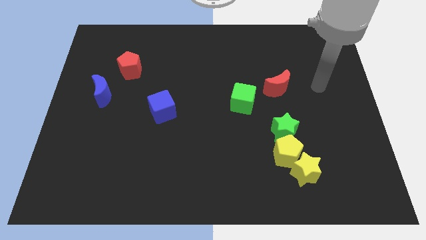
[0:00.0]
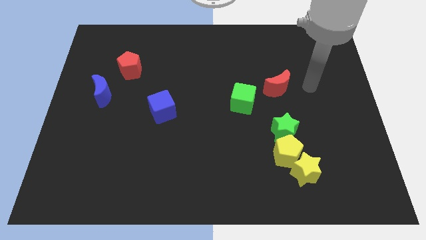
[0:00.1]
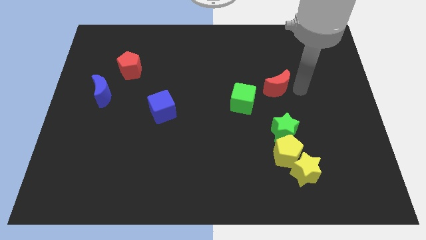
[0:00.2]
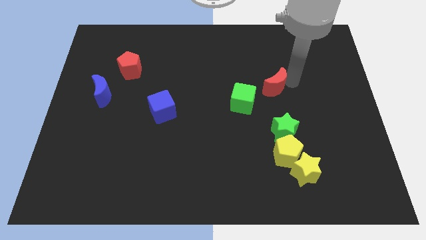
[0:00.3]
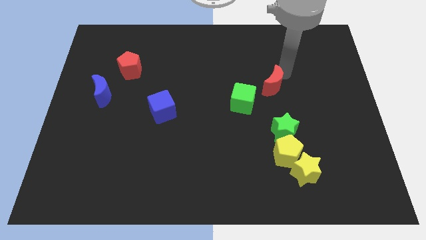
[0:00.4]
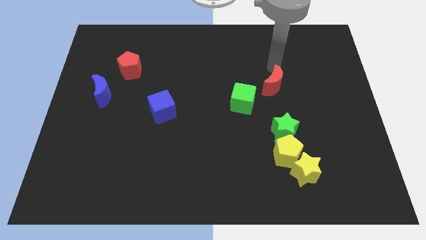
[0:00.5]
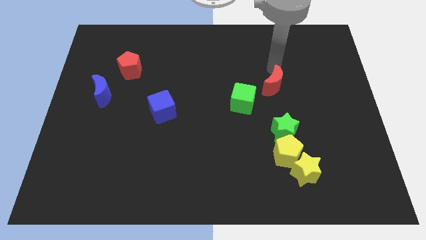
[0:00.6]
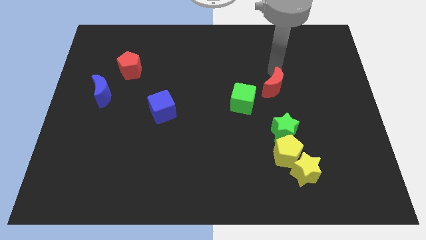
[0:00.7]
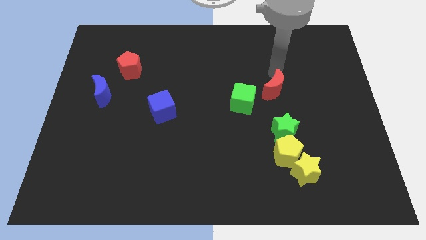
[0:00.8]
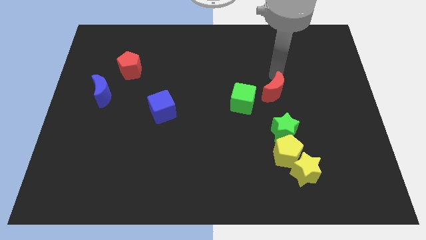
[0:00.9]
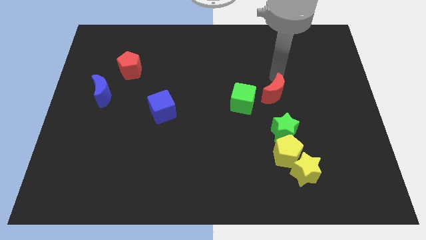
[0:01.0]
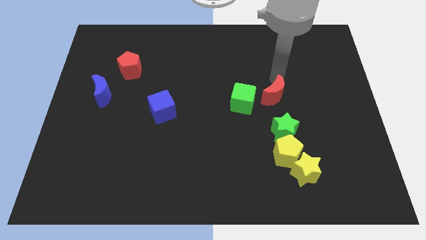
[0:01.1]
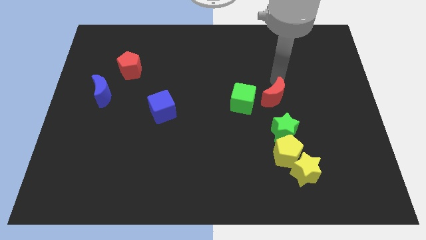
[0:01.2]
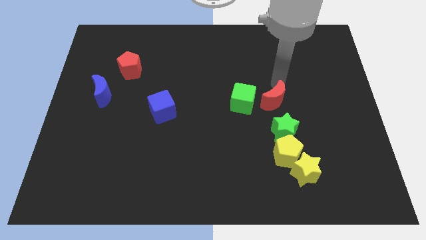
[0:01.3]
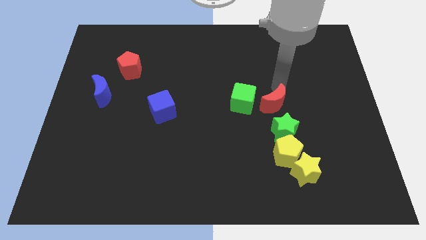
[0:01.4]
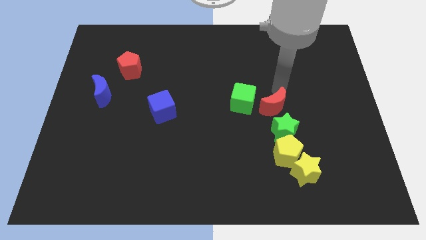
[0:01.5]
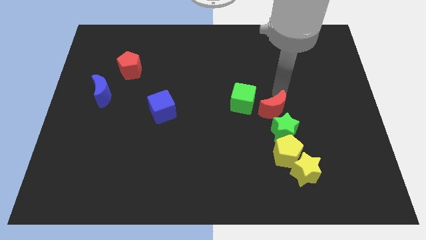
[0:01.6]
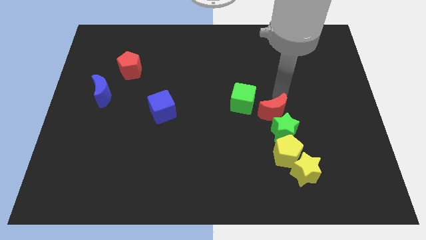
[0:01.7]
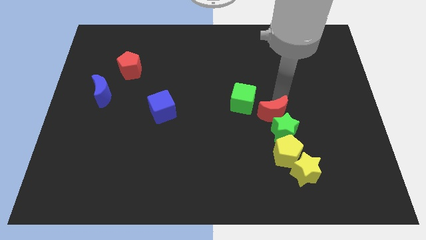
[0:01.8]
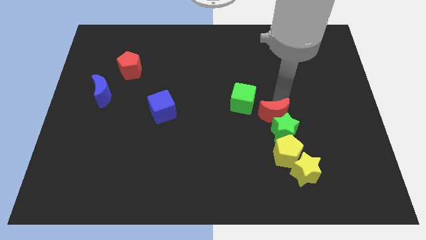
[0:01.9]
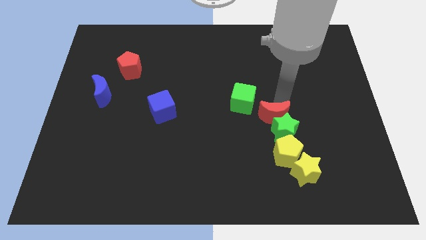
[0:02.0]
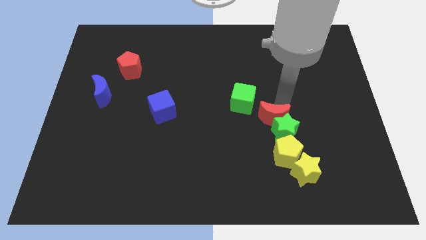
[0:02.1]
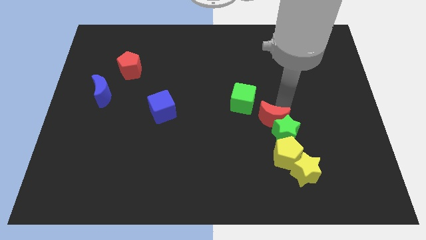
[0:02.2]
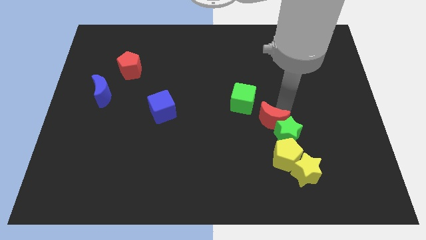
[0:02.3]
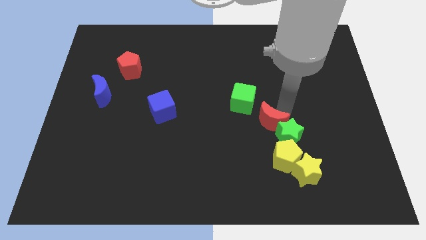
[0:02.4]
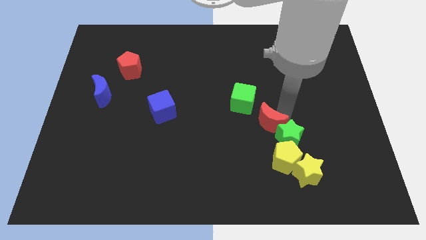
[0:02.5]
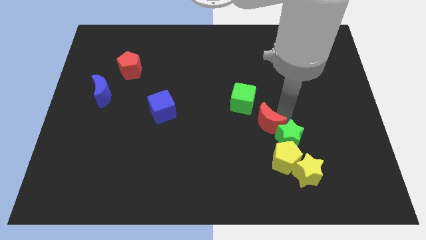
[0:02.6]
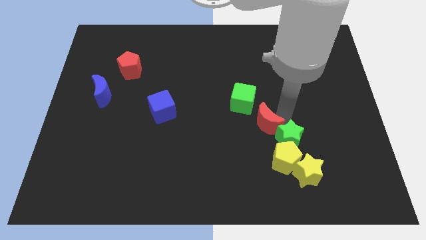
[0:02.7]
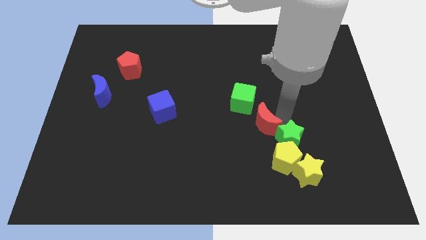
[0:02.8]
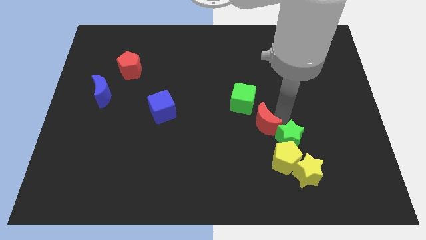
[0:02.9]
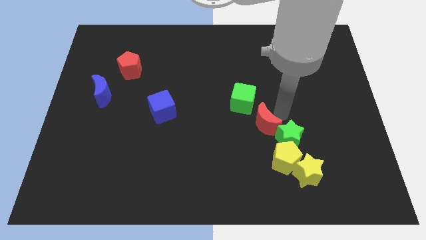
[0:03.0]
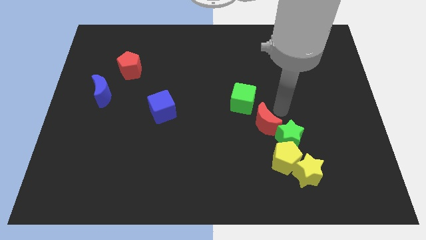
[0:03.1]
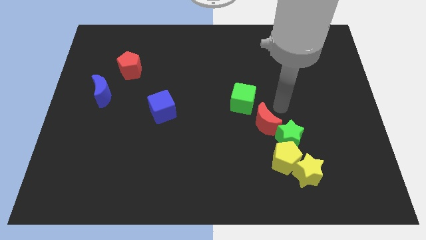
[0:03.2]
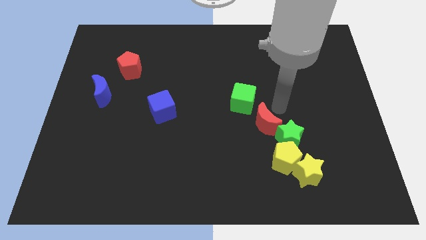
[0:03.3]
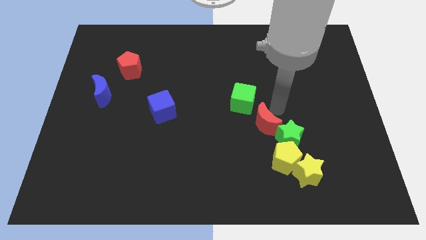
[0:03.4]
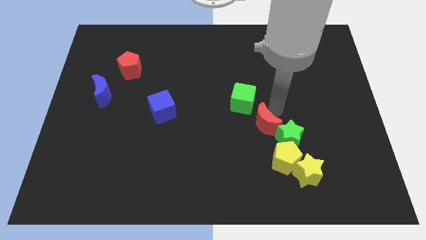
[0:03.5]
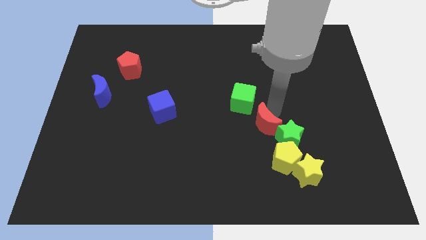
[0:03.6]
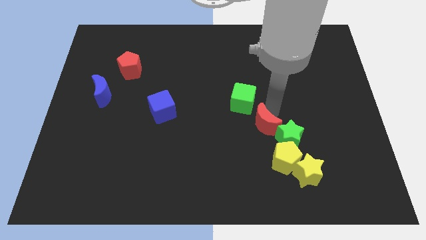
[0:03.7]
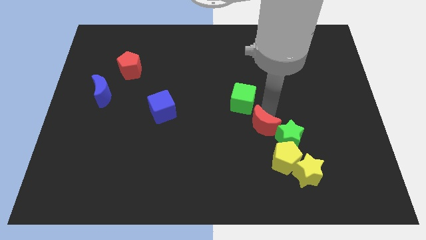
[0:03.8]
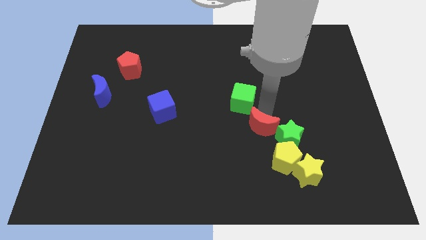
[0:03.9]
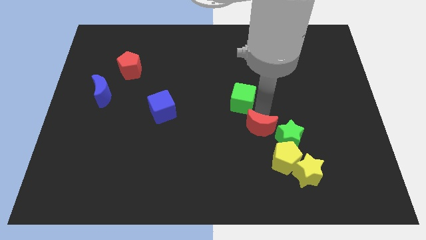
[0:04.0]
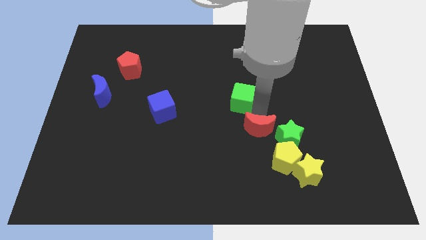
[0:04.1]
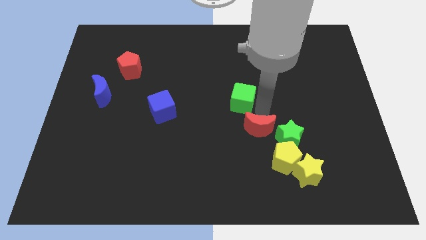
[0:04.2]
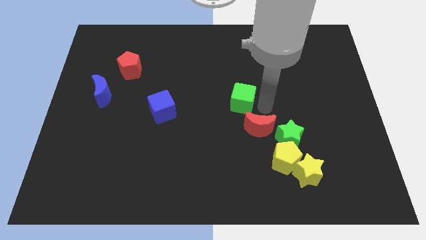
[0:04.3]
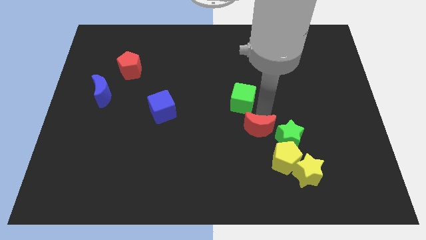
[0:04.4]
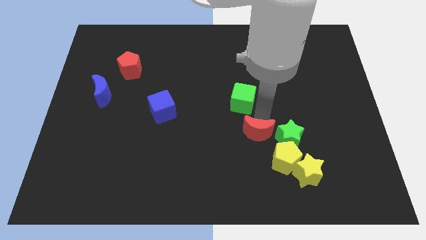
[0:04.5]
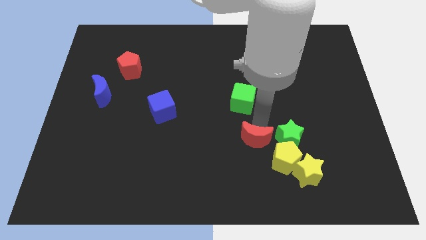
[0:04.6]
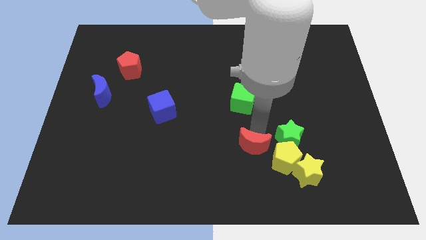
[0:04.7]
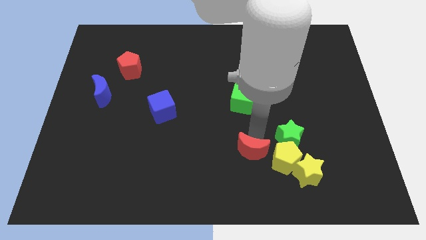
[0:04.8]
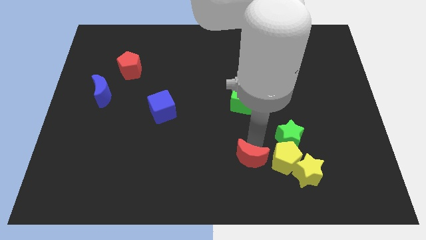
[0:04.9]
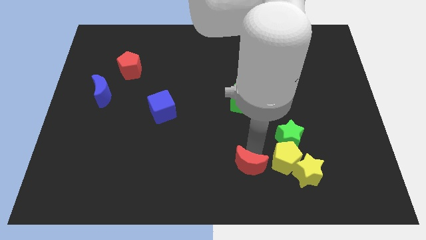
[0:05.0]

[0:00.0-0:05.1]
put the red moon to the bottom side

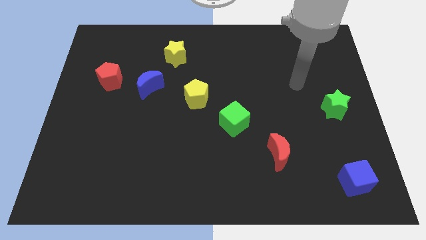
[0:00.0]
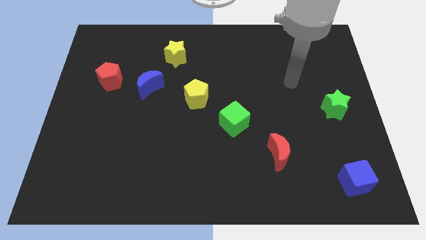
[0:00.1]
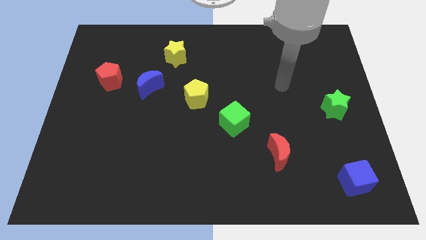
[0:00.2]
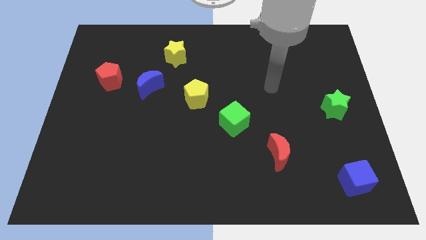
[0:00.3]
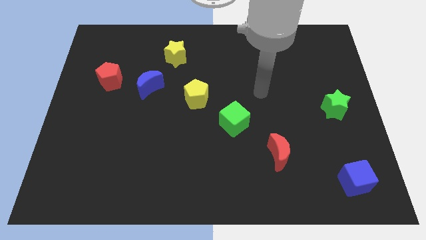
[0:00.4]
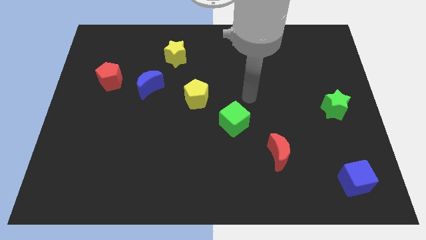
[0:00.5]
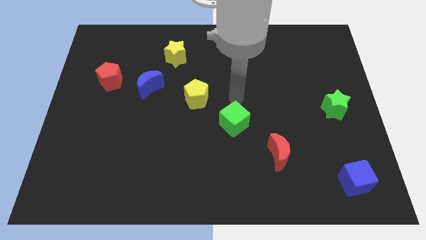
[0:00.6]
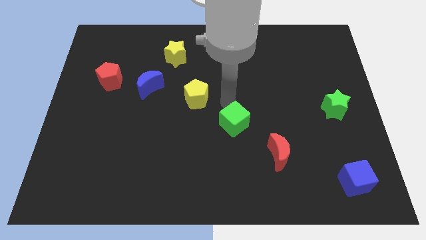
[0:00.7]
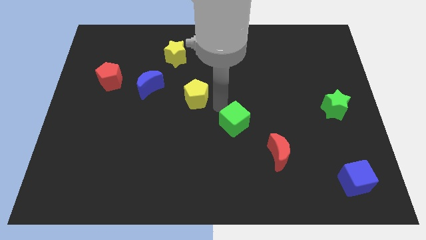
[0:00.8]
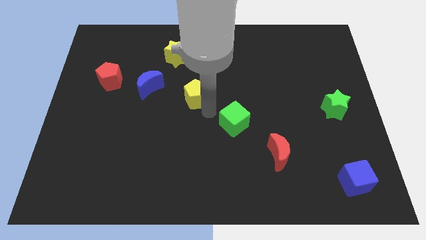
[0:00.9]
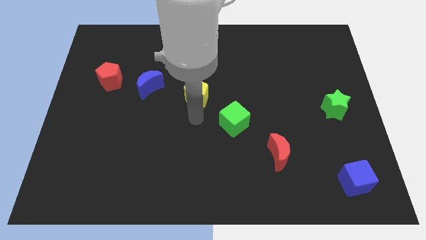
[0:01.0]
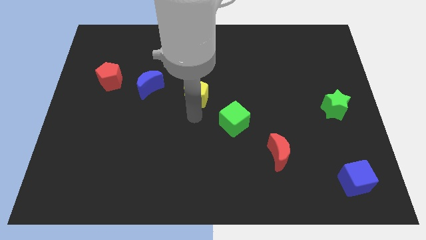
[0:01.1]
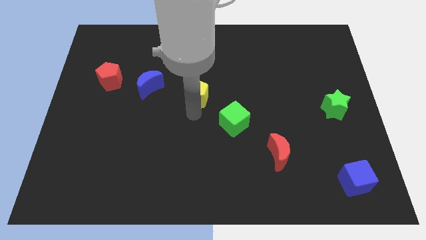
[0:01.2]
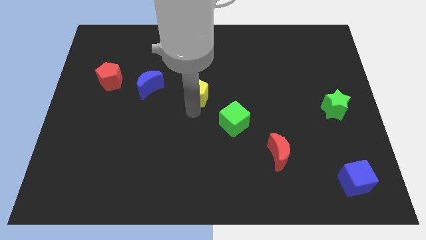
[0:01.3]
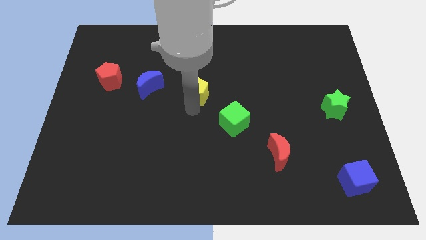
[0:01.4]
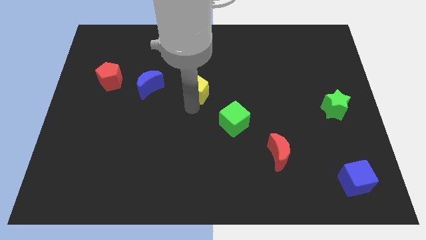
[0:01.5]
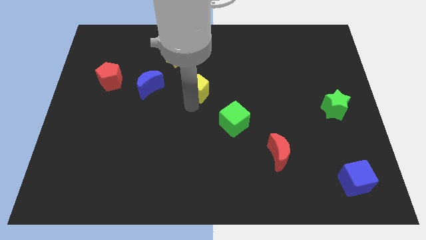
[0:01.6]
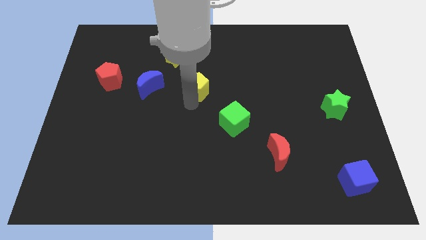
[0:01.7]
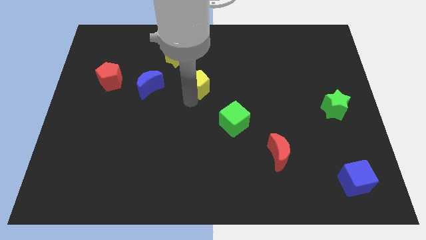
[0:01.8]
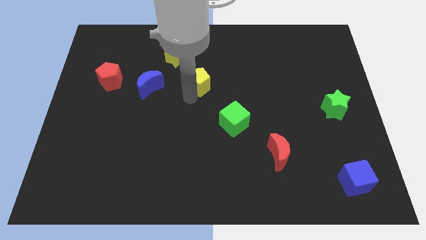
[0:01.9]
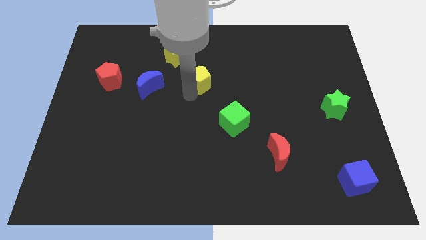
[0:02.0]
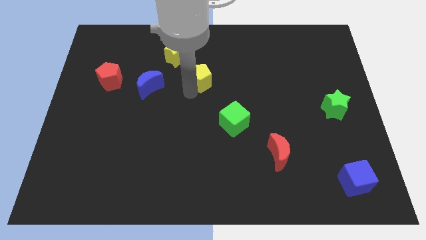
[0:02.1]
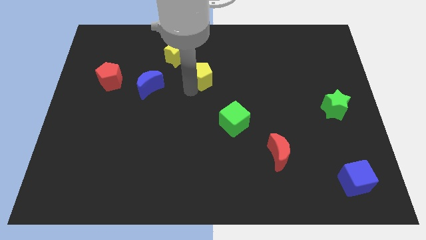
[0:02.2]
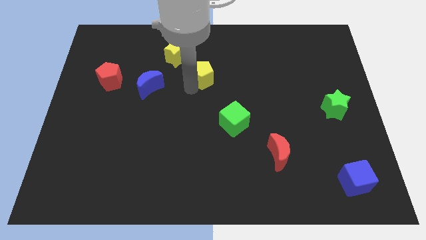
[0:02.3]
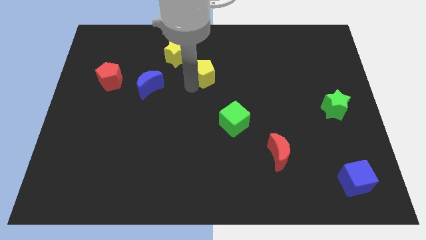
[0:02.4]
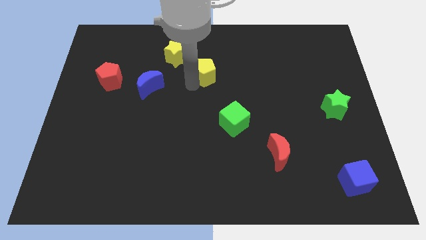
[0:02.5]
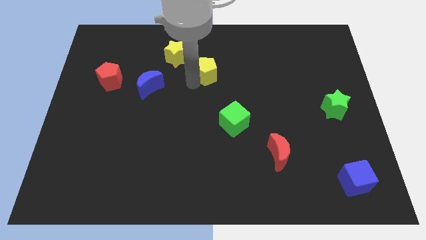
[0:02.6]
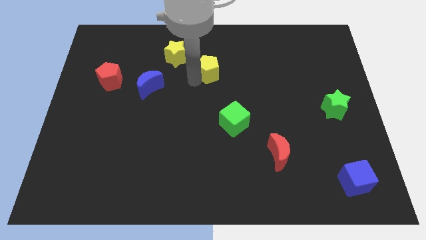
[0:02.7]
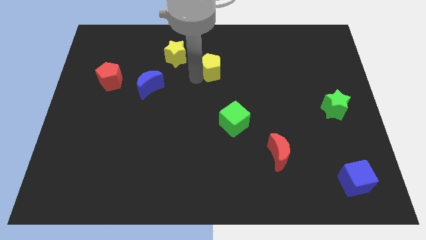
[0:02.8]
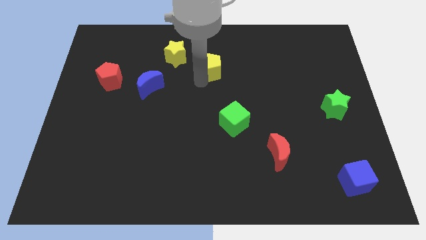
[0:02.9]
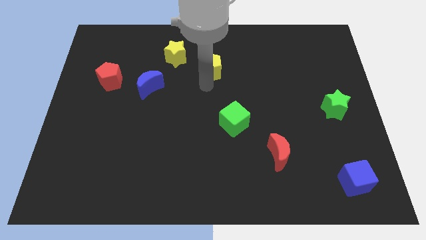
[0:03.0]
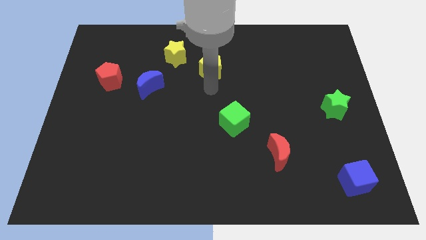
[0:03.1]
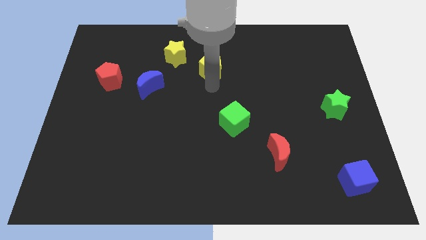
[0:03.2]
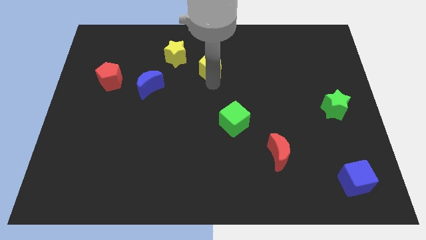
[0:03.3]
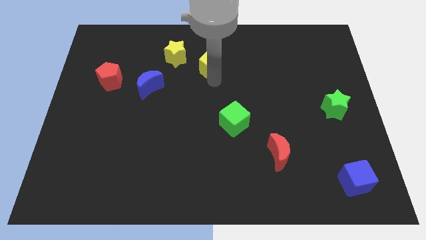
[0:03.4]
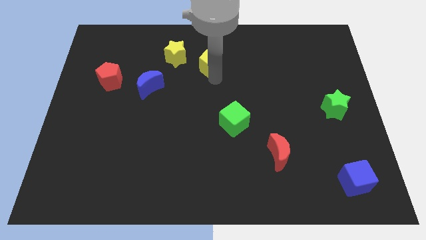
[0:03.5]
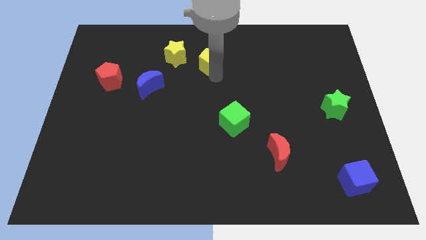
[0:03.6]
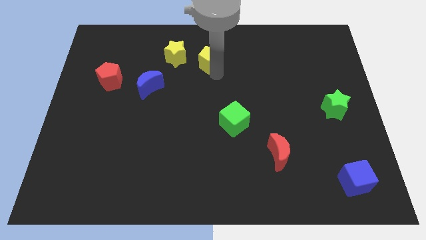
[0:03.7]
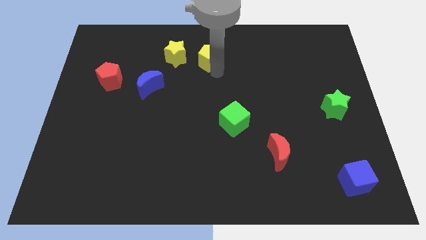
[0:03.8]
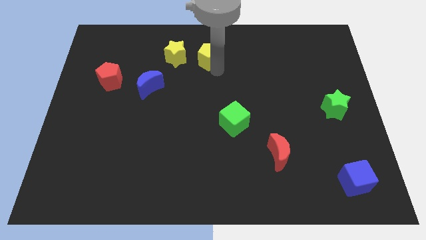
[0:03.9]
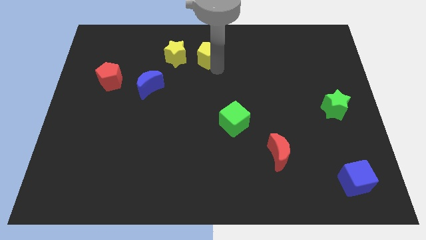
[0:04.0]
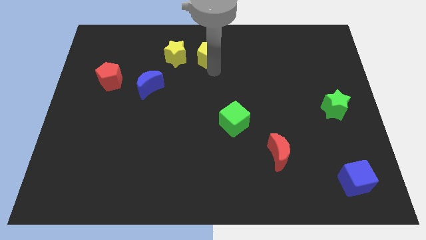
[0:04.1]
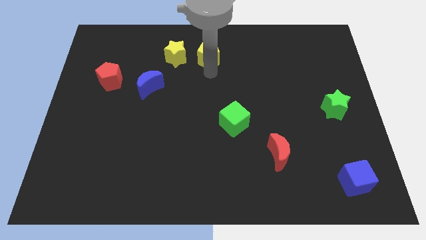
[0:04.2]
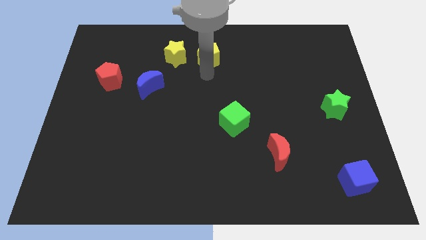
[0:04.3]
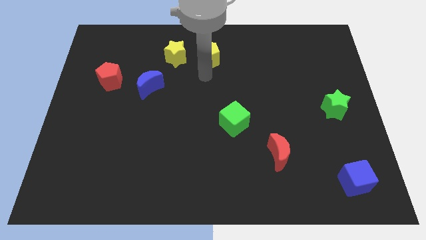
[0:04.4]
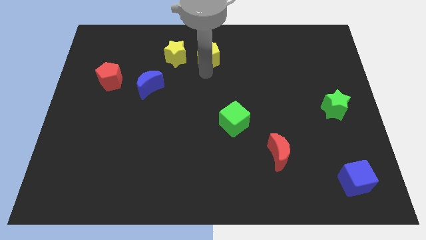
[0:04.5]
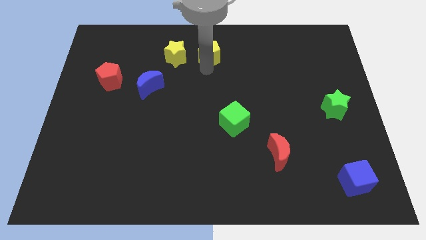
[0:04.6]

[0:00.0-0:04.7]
move the yellow pentagon to the towards your base
